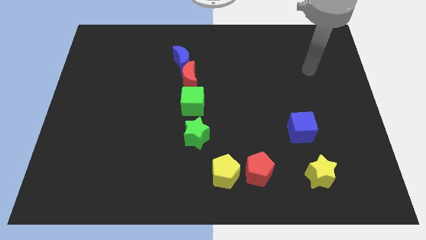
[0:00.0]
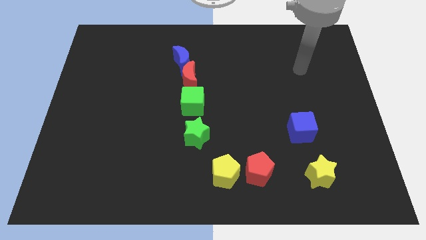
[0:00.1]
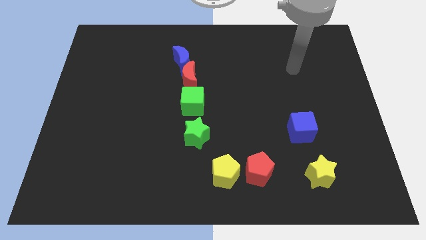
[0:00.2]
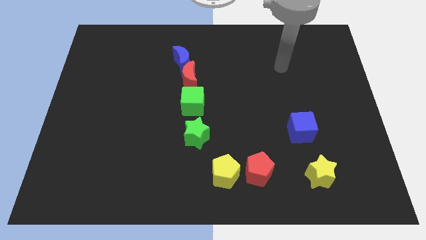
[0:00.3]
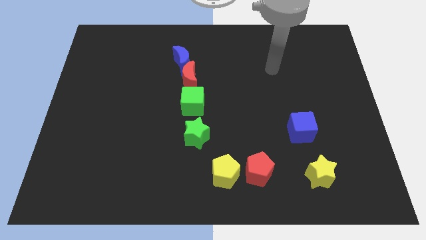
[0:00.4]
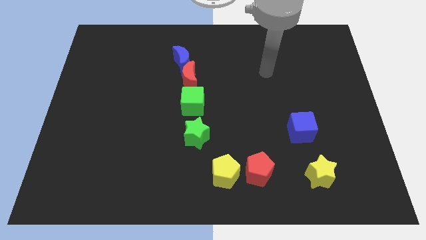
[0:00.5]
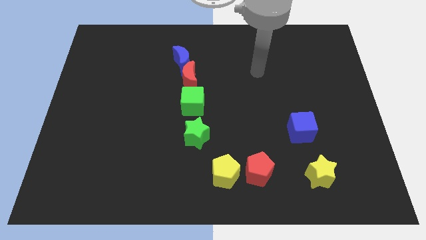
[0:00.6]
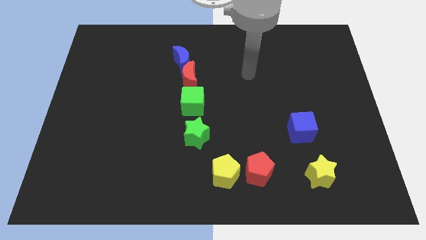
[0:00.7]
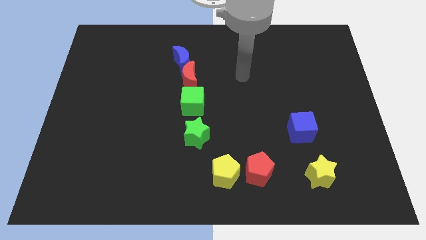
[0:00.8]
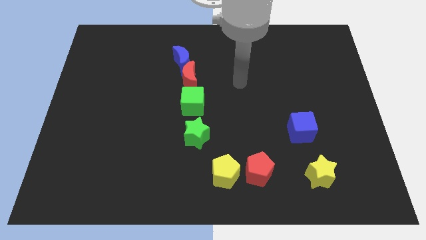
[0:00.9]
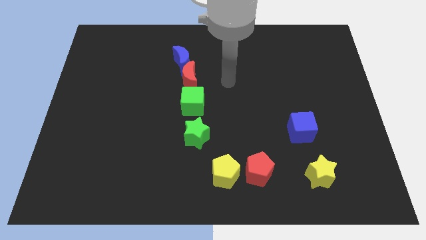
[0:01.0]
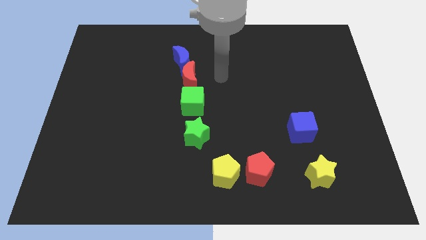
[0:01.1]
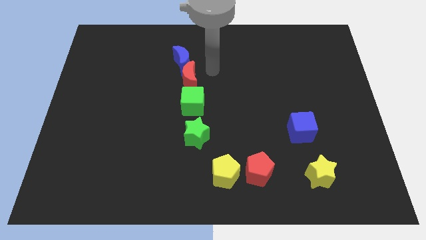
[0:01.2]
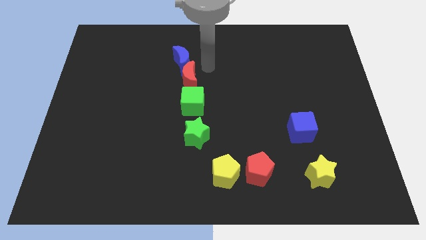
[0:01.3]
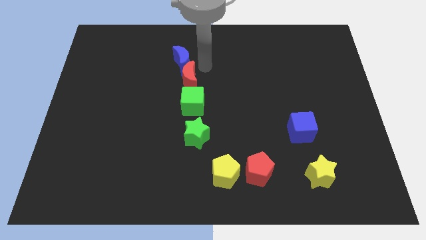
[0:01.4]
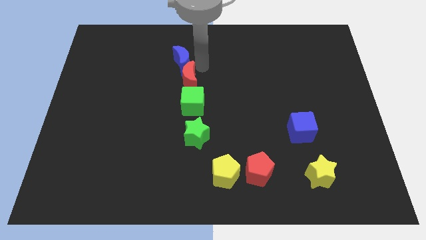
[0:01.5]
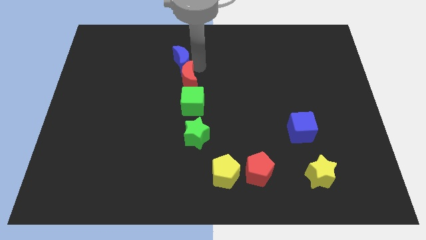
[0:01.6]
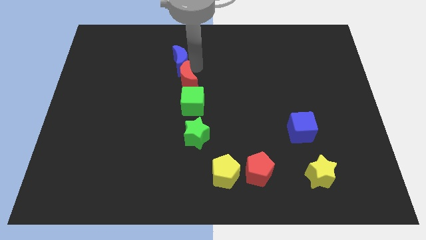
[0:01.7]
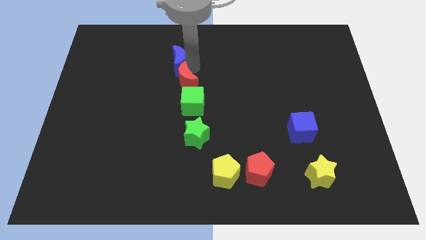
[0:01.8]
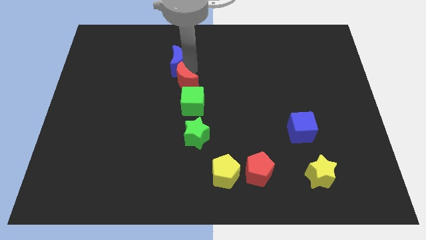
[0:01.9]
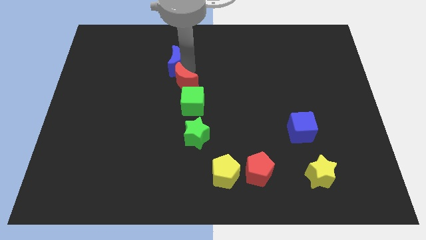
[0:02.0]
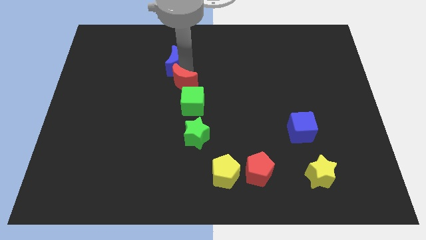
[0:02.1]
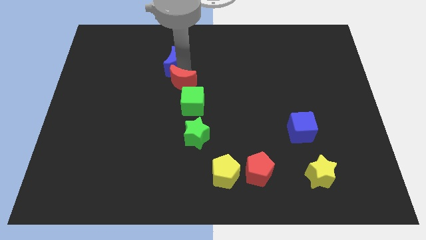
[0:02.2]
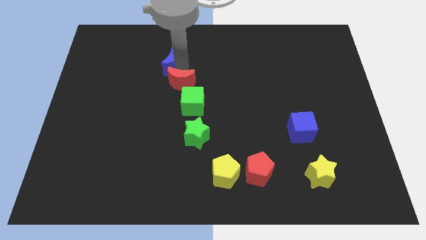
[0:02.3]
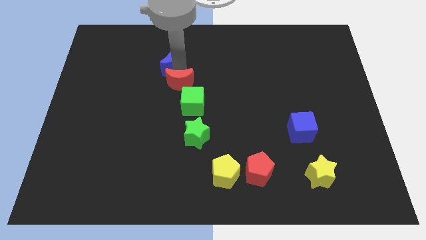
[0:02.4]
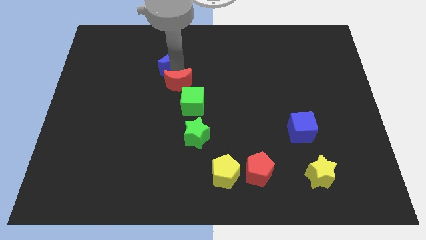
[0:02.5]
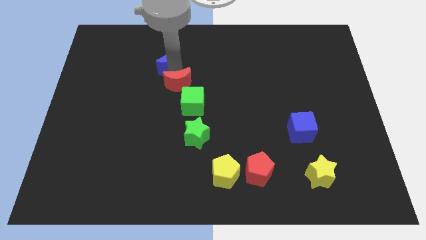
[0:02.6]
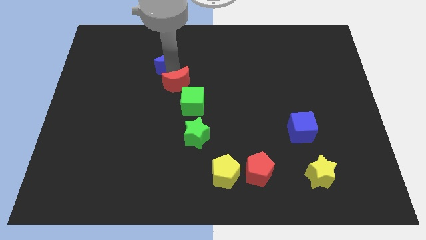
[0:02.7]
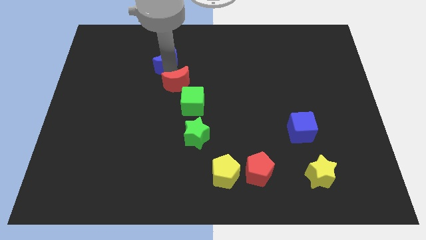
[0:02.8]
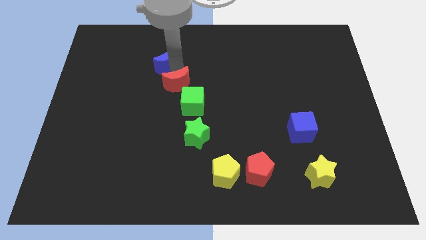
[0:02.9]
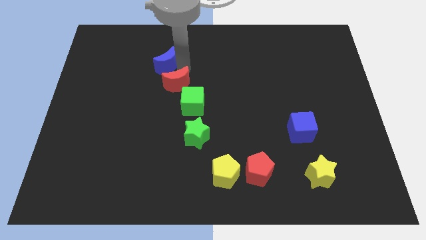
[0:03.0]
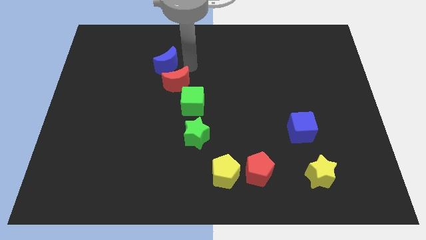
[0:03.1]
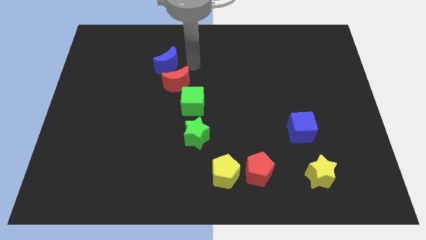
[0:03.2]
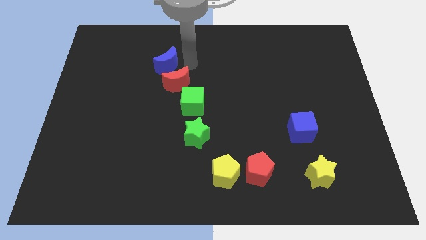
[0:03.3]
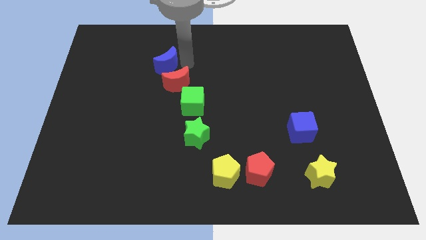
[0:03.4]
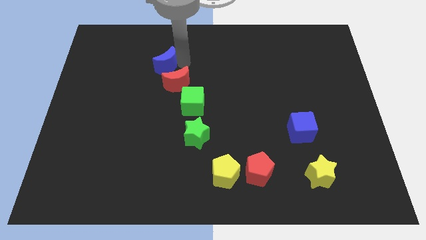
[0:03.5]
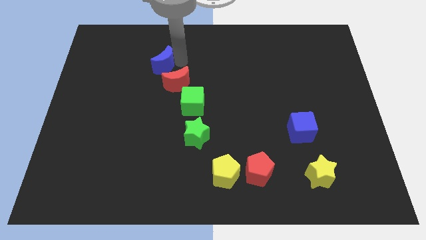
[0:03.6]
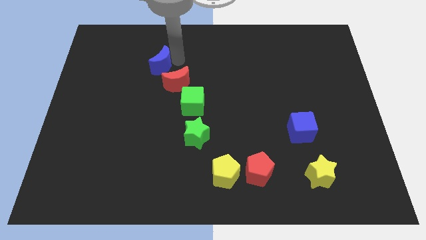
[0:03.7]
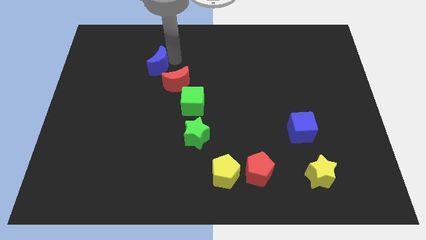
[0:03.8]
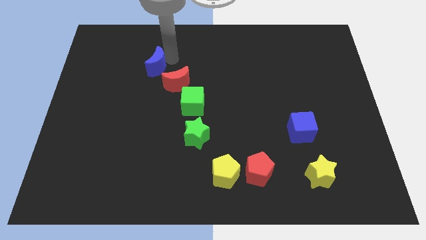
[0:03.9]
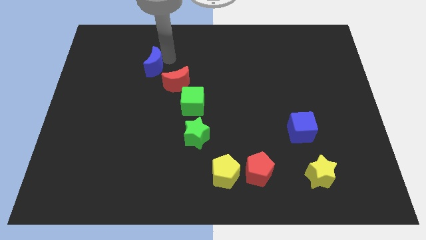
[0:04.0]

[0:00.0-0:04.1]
push the blue moon a little left

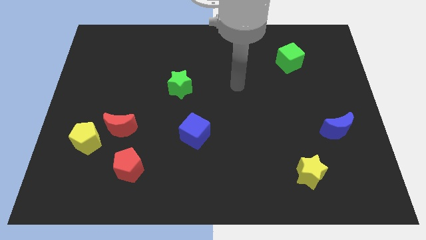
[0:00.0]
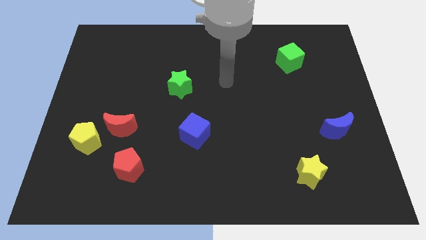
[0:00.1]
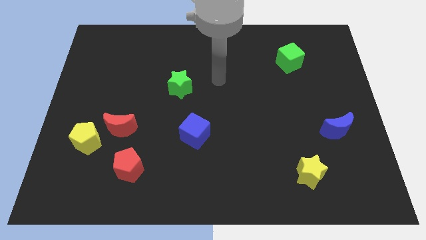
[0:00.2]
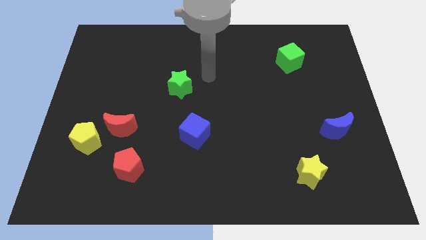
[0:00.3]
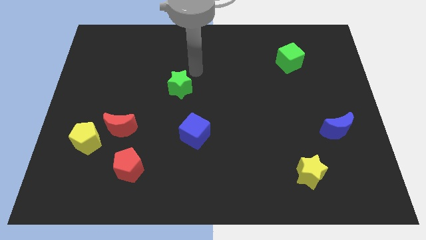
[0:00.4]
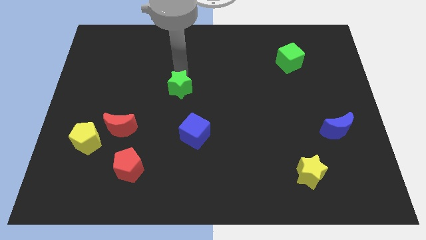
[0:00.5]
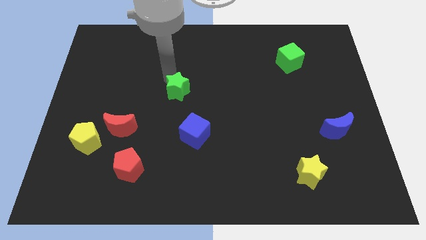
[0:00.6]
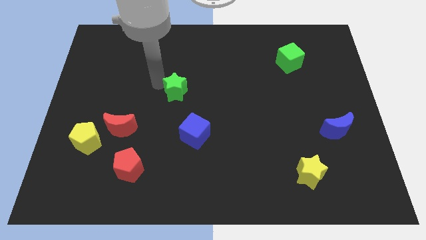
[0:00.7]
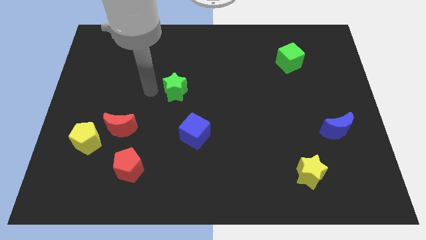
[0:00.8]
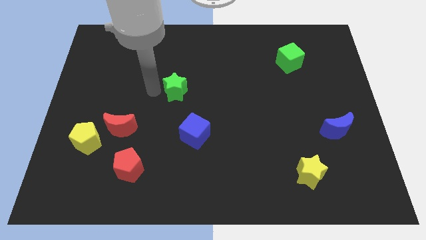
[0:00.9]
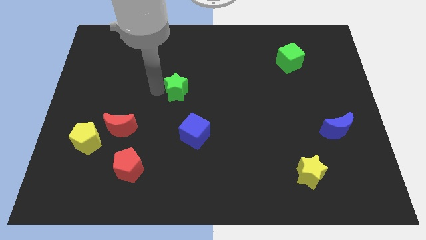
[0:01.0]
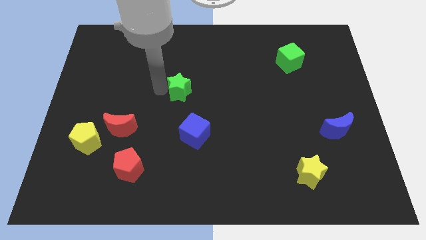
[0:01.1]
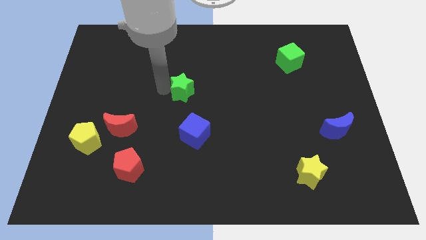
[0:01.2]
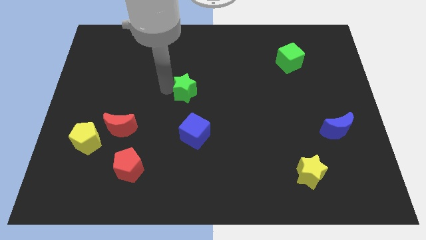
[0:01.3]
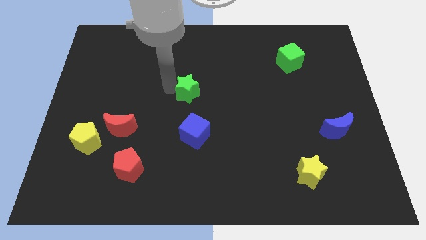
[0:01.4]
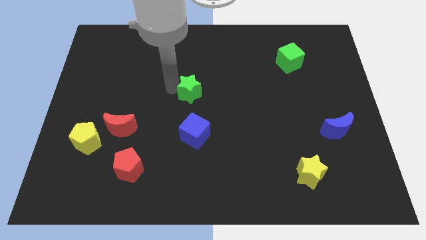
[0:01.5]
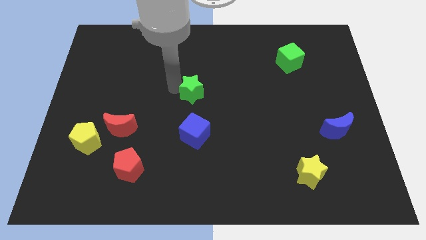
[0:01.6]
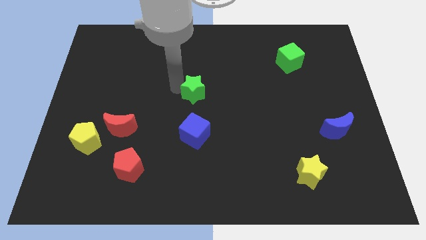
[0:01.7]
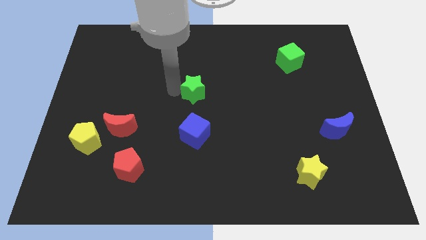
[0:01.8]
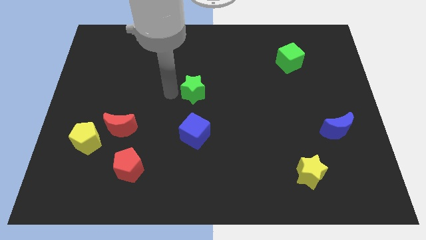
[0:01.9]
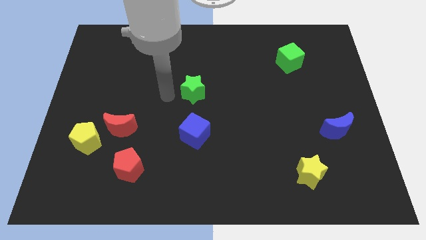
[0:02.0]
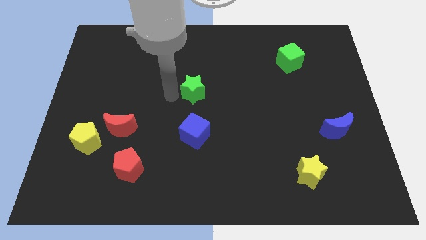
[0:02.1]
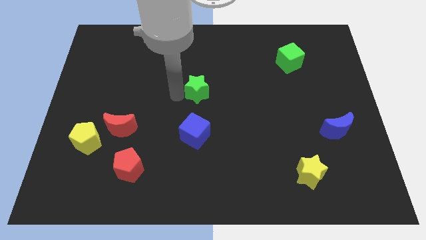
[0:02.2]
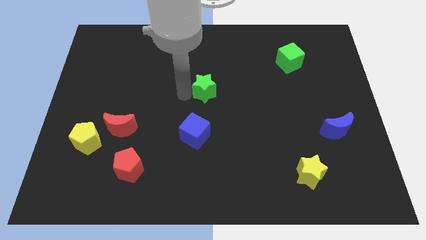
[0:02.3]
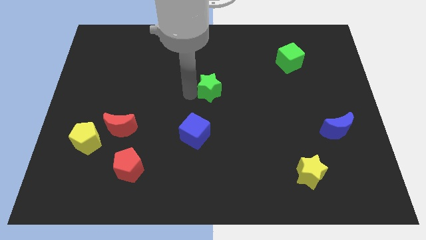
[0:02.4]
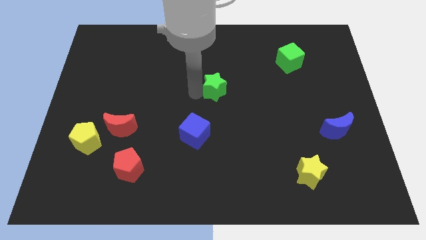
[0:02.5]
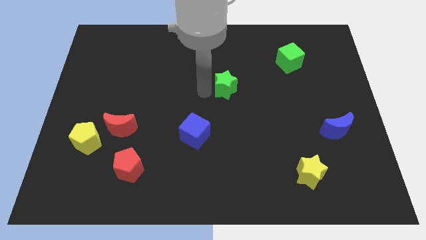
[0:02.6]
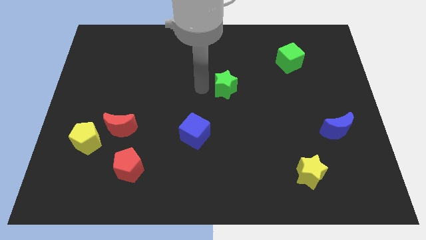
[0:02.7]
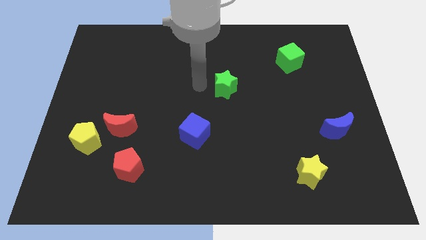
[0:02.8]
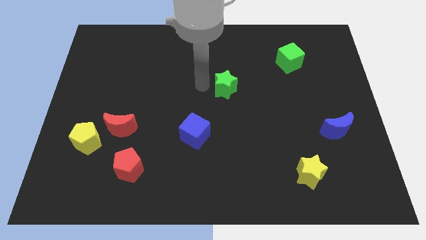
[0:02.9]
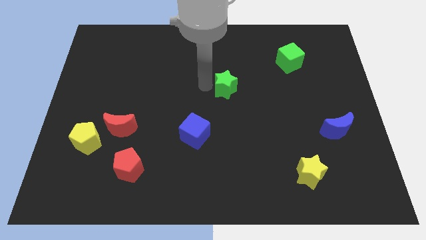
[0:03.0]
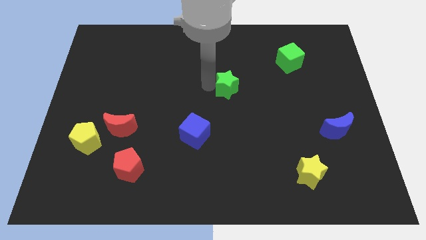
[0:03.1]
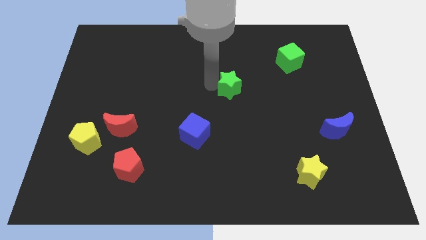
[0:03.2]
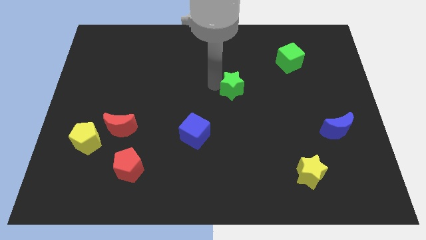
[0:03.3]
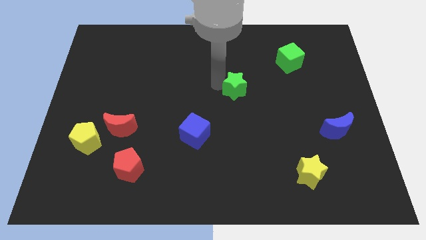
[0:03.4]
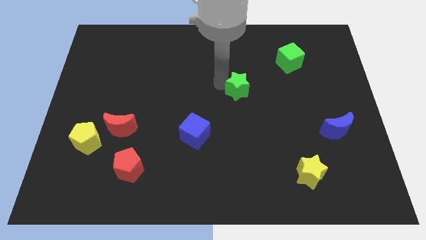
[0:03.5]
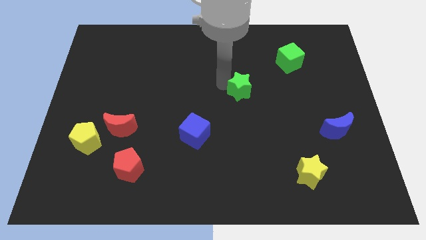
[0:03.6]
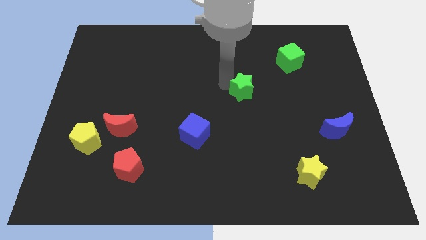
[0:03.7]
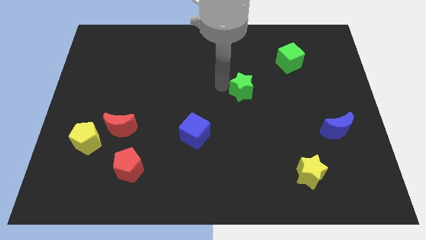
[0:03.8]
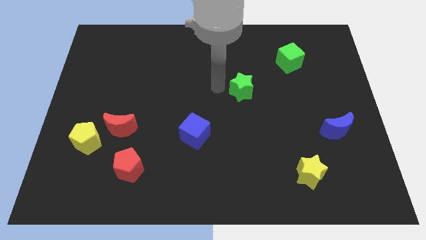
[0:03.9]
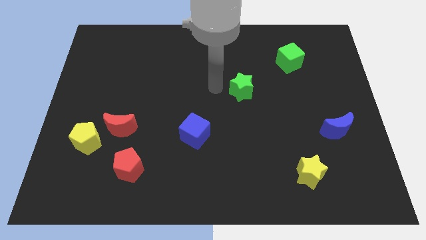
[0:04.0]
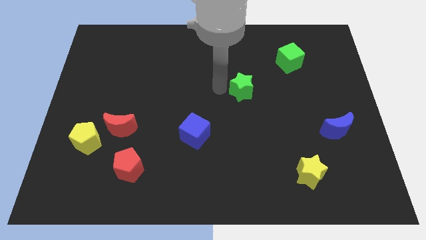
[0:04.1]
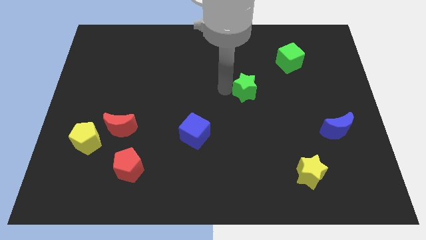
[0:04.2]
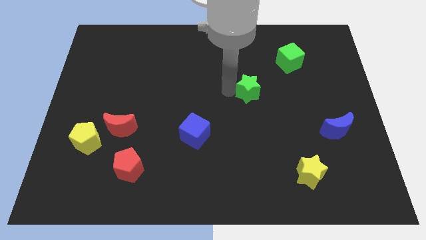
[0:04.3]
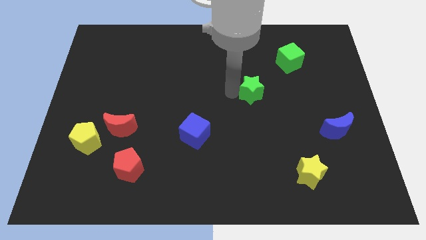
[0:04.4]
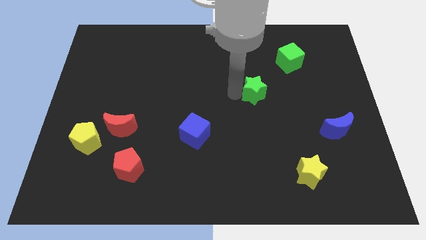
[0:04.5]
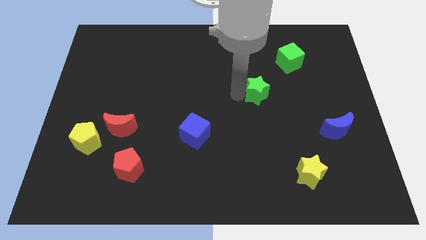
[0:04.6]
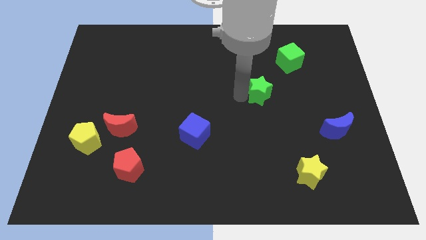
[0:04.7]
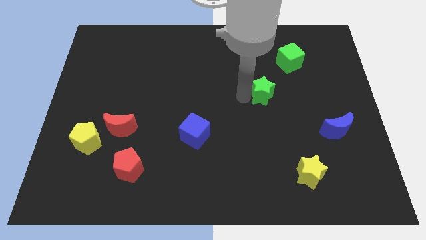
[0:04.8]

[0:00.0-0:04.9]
slide the green star right
